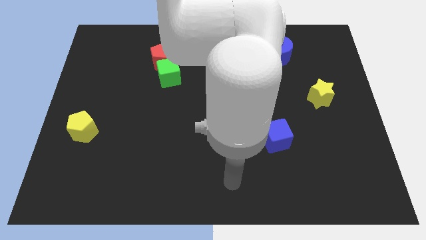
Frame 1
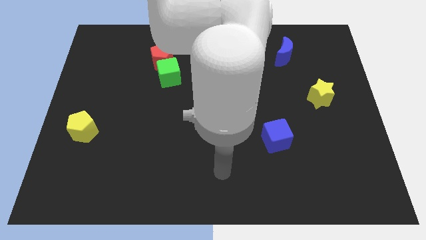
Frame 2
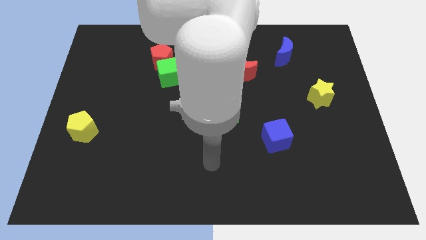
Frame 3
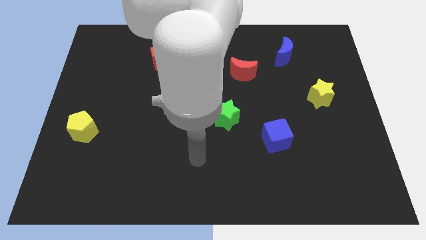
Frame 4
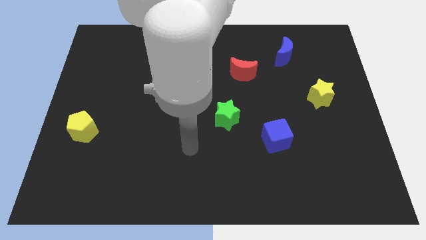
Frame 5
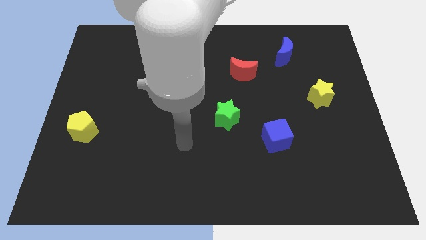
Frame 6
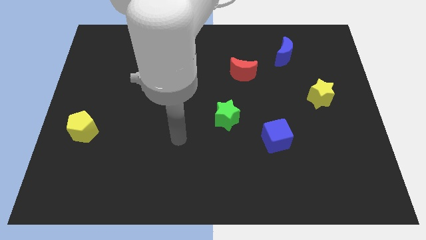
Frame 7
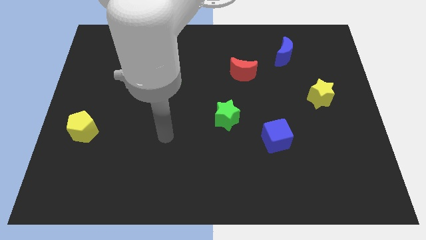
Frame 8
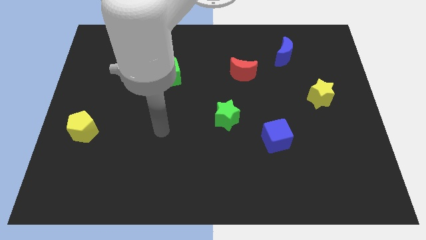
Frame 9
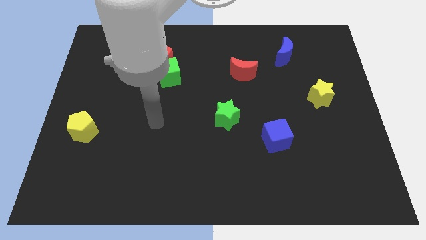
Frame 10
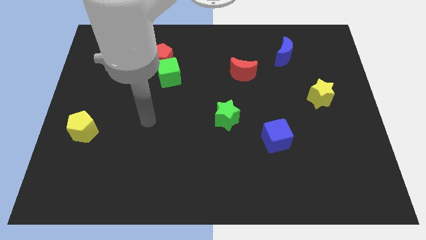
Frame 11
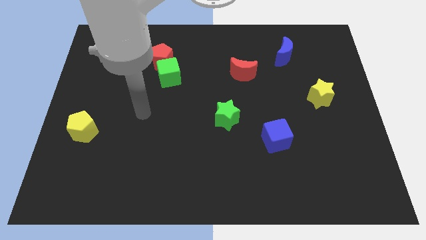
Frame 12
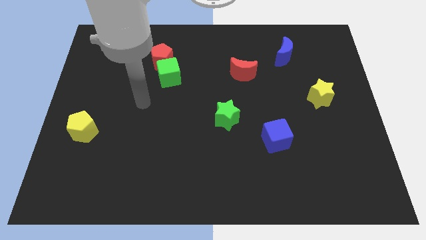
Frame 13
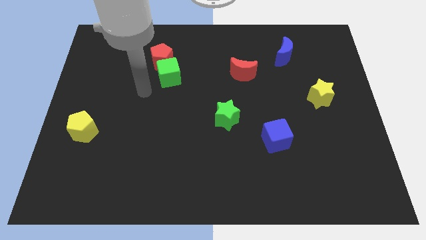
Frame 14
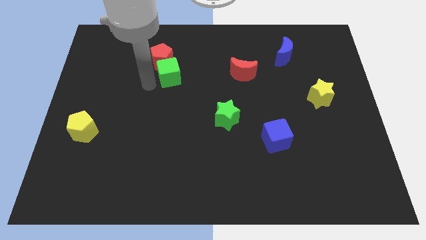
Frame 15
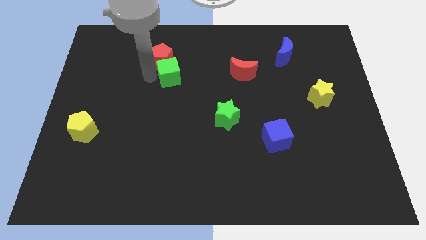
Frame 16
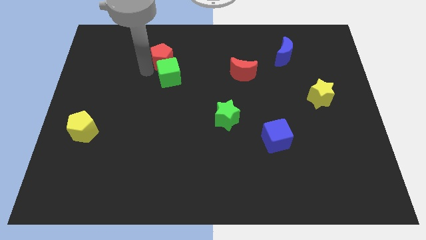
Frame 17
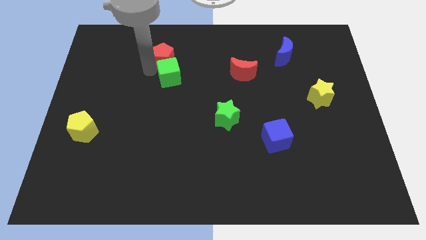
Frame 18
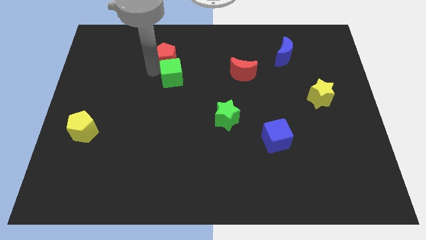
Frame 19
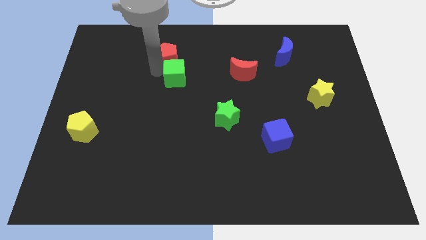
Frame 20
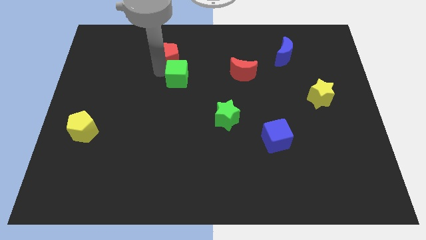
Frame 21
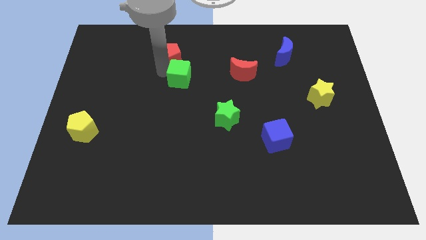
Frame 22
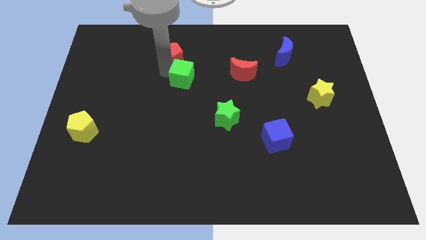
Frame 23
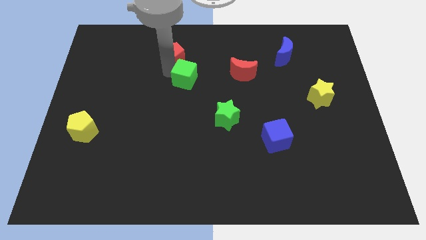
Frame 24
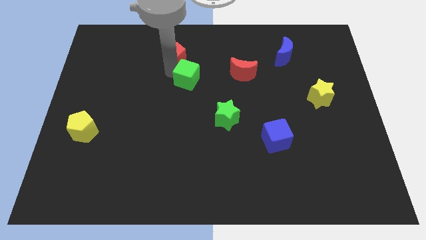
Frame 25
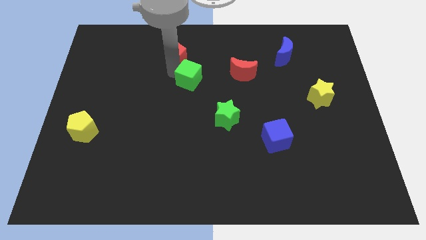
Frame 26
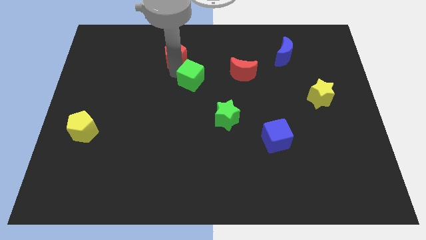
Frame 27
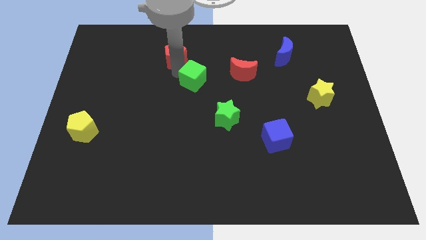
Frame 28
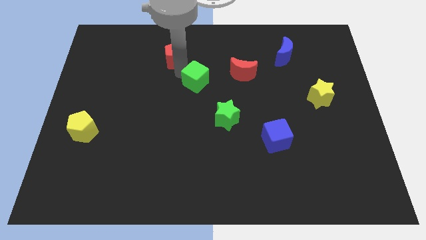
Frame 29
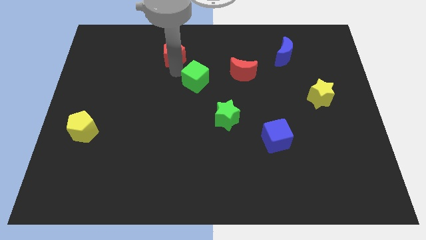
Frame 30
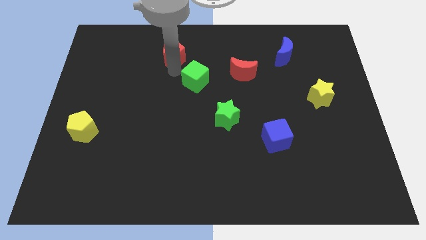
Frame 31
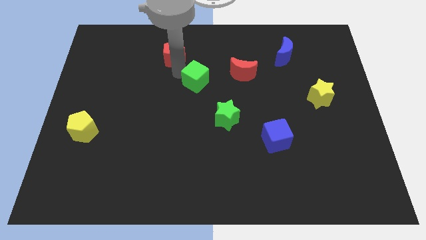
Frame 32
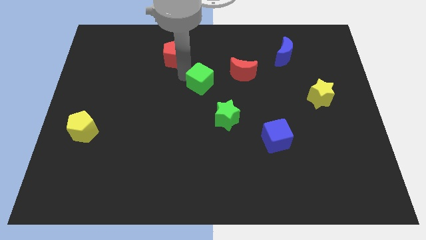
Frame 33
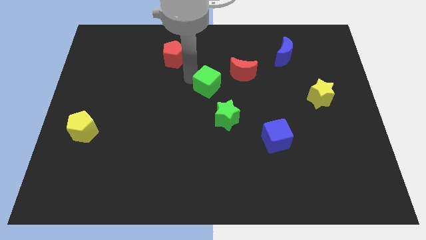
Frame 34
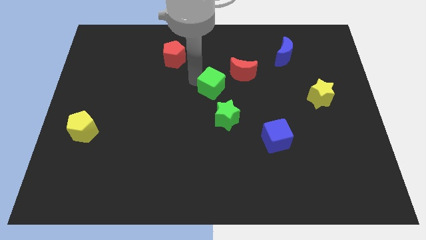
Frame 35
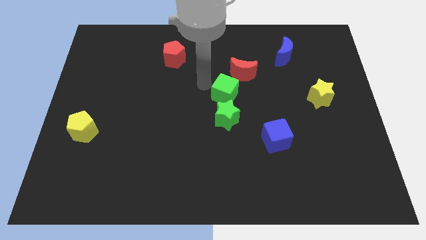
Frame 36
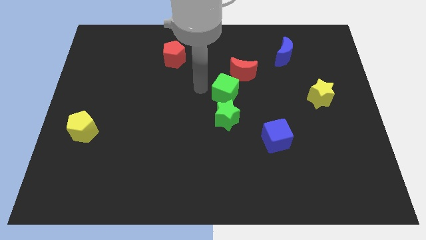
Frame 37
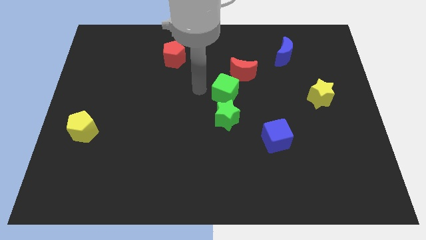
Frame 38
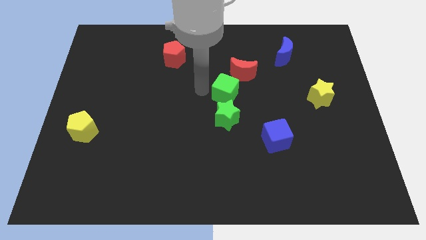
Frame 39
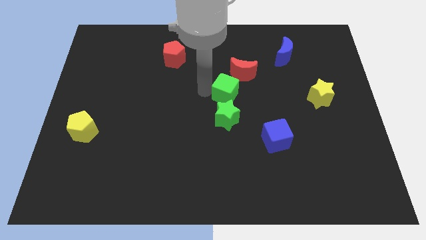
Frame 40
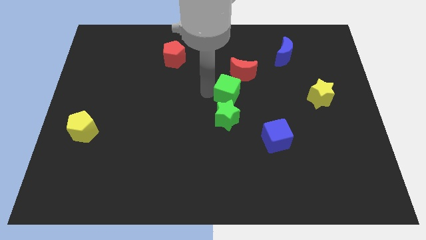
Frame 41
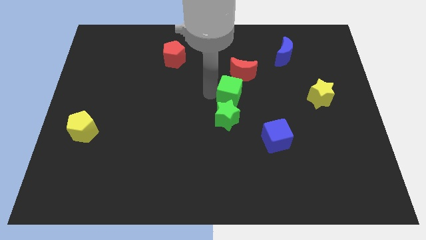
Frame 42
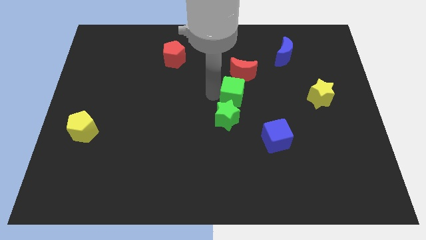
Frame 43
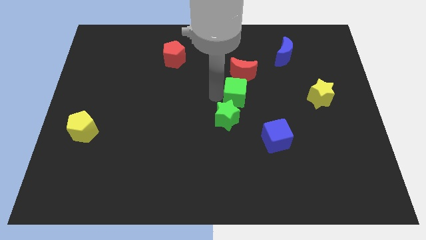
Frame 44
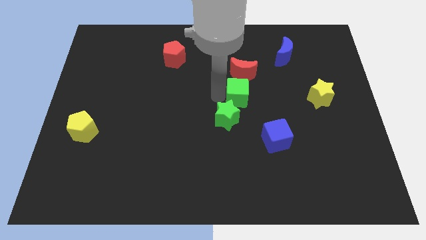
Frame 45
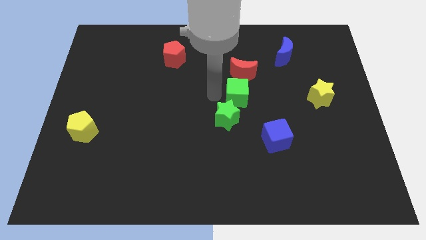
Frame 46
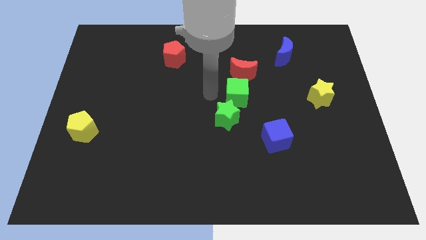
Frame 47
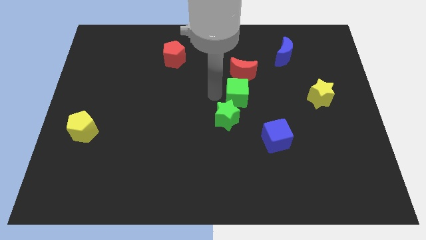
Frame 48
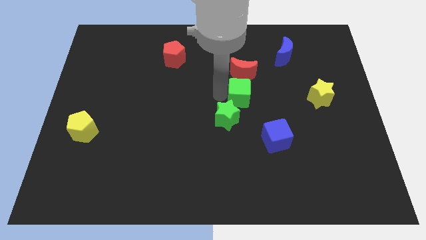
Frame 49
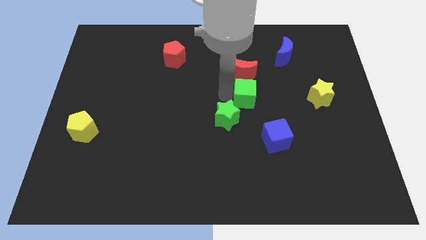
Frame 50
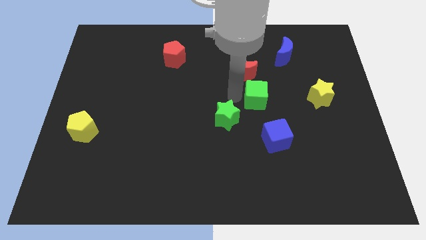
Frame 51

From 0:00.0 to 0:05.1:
put the green cube to the left side of the yellow star

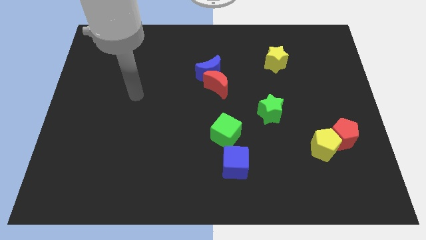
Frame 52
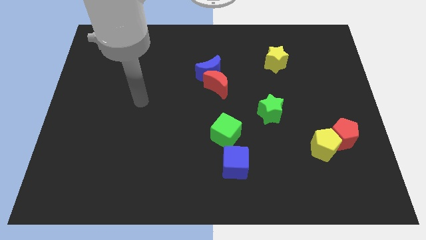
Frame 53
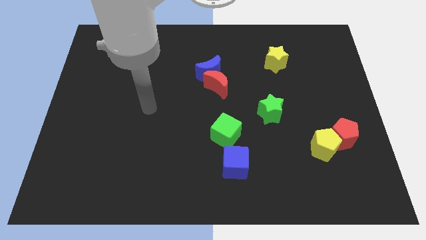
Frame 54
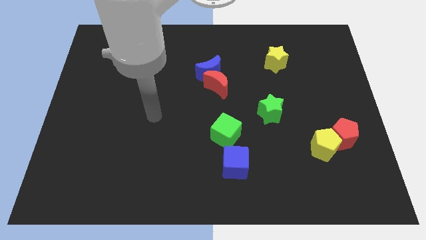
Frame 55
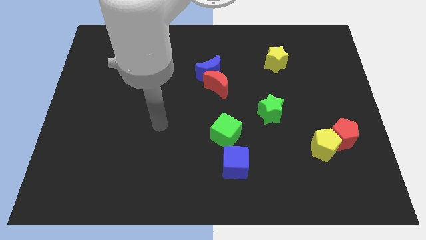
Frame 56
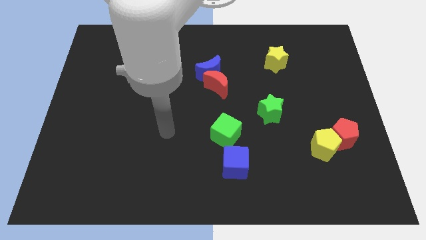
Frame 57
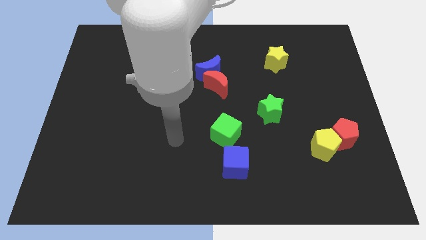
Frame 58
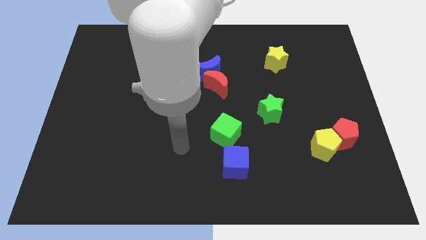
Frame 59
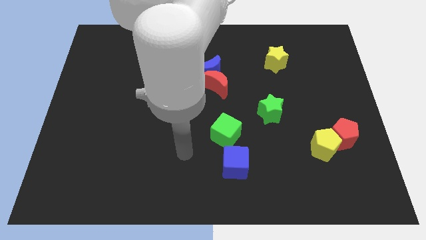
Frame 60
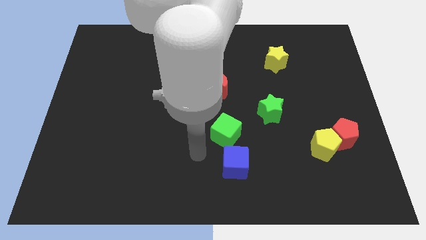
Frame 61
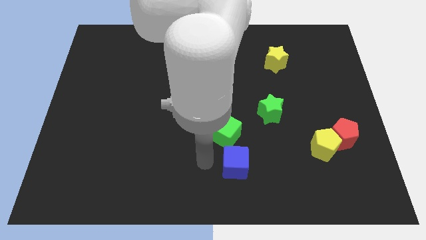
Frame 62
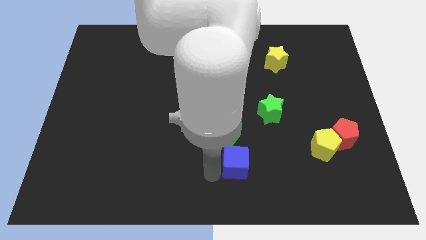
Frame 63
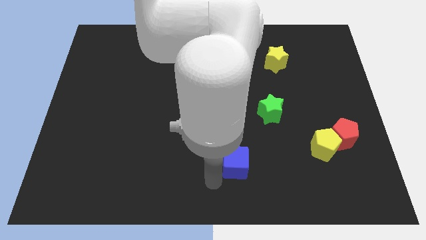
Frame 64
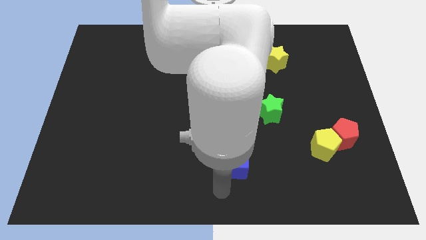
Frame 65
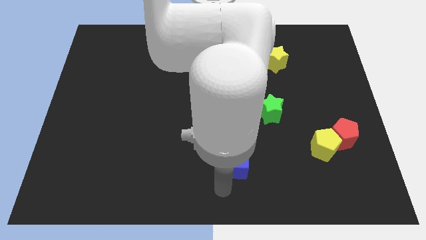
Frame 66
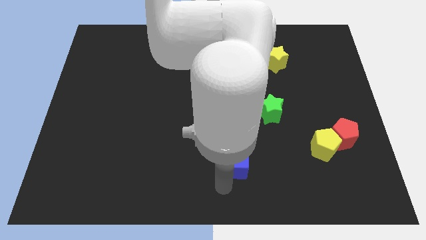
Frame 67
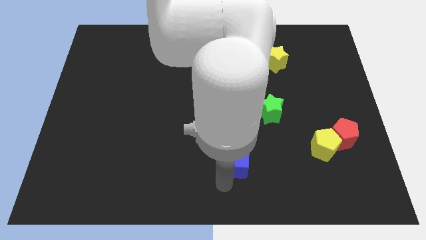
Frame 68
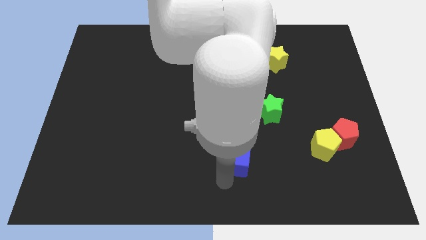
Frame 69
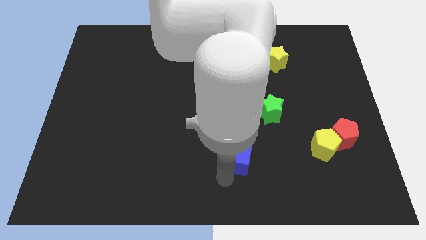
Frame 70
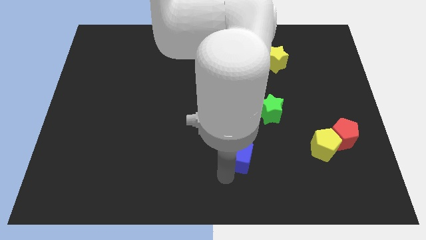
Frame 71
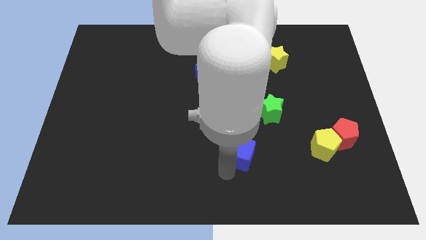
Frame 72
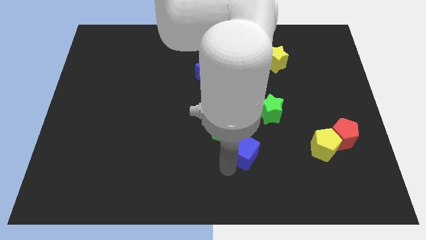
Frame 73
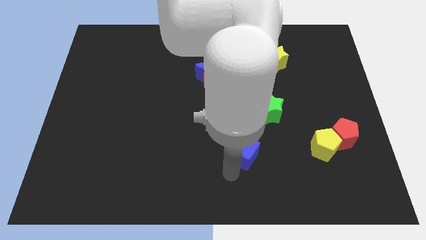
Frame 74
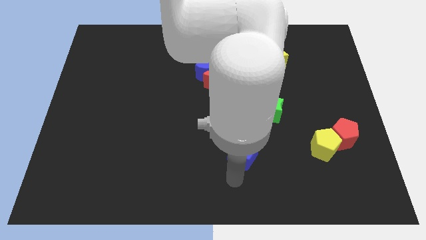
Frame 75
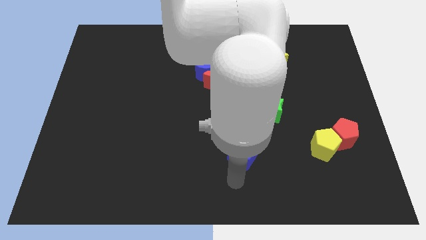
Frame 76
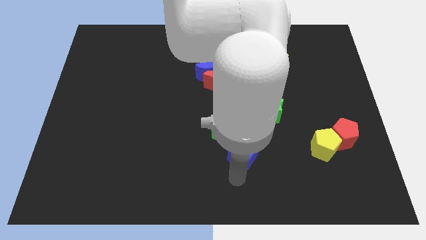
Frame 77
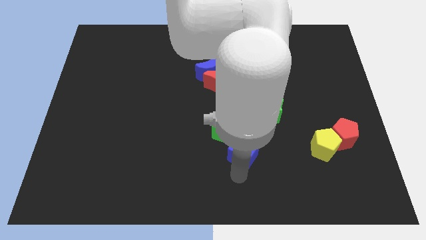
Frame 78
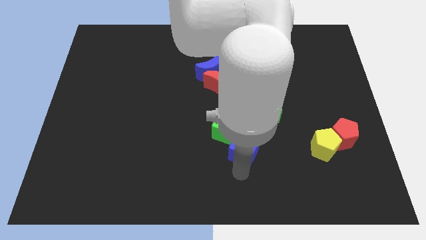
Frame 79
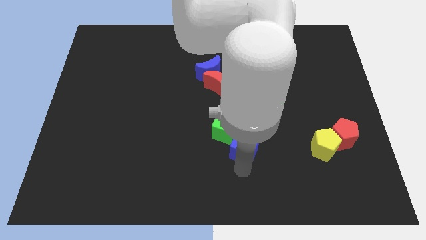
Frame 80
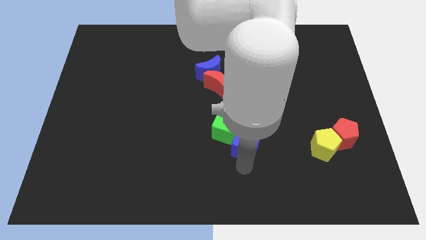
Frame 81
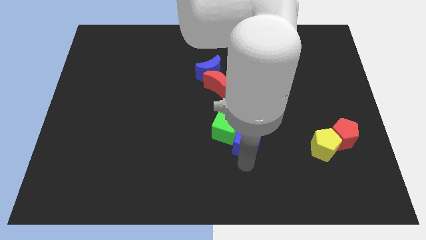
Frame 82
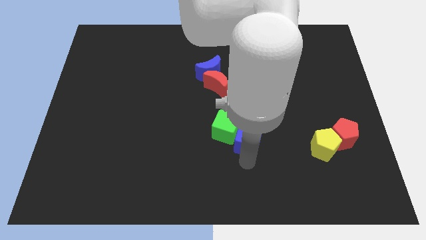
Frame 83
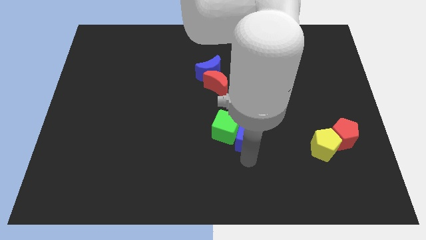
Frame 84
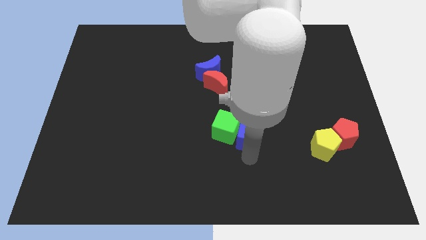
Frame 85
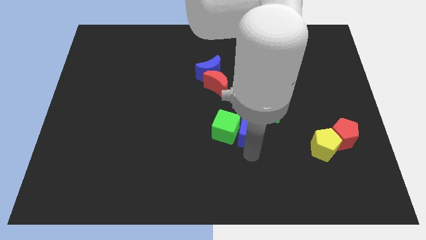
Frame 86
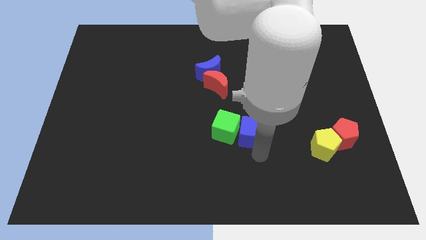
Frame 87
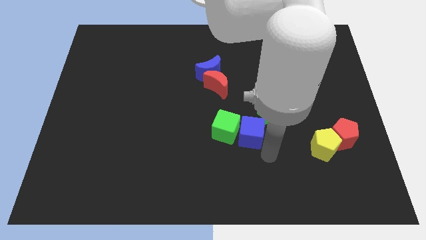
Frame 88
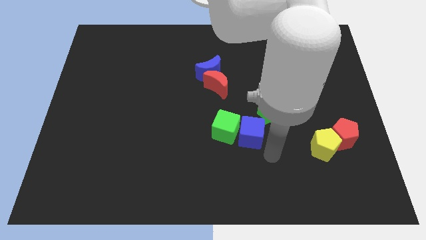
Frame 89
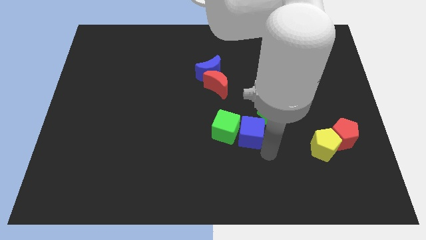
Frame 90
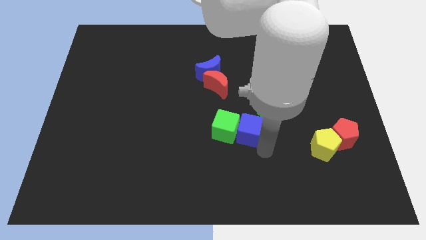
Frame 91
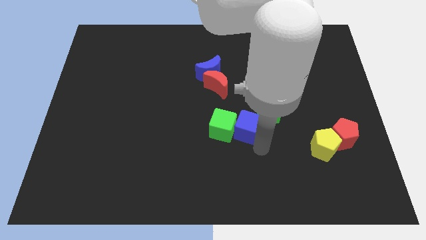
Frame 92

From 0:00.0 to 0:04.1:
slide the blue cube to the left of the green star
